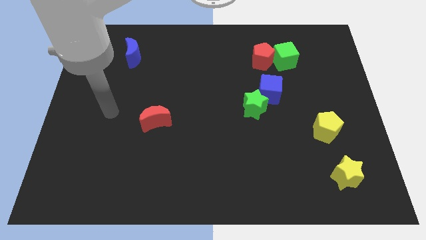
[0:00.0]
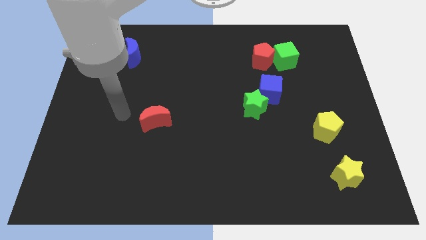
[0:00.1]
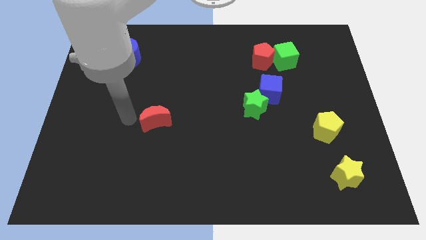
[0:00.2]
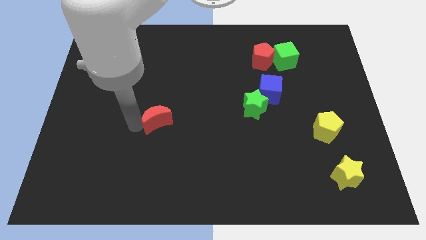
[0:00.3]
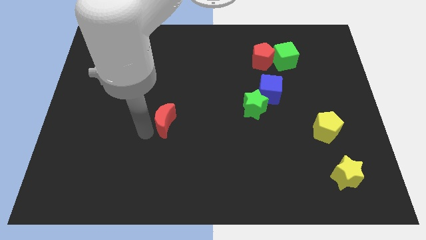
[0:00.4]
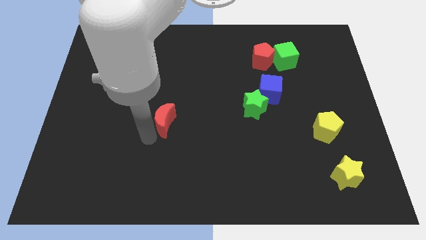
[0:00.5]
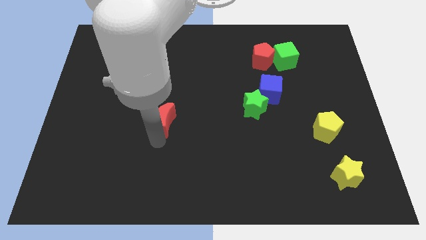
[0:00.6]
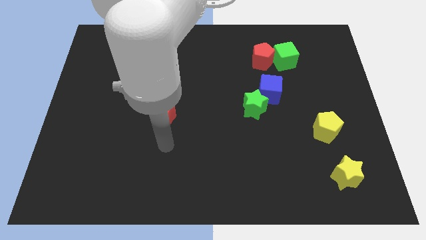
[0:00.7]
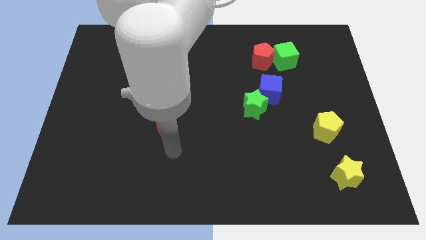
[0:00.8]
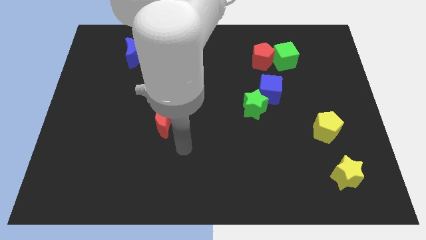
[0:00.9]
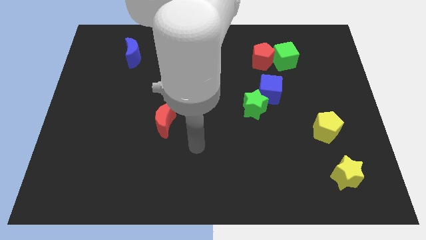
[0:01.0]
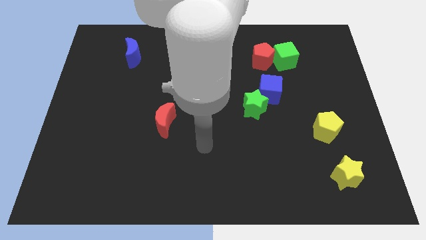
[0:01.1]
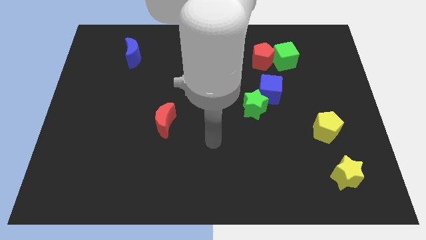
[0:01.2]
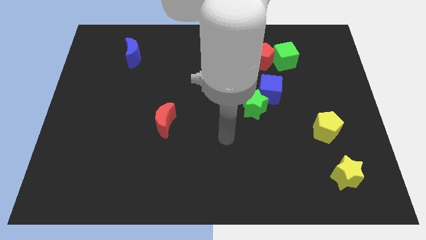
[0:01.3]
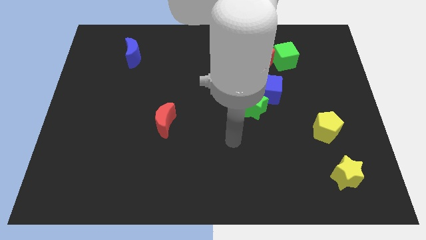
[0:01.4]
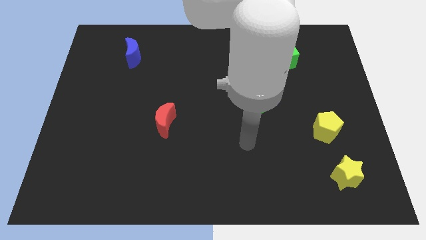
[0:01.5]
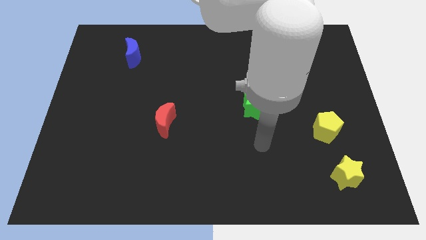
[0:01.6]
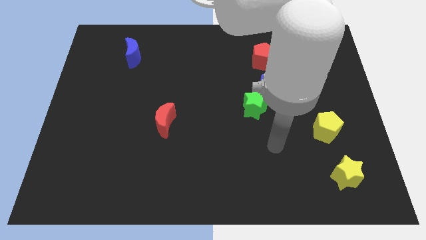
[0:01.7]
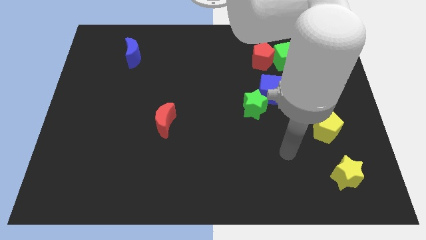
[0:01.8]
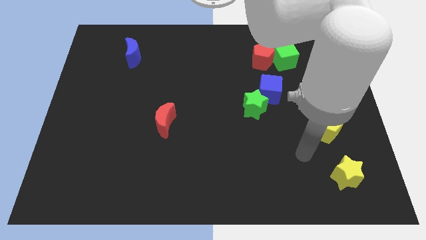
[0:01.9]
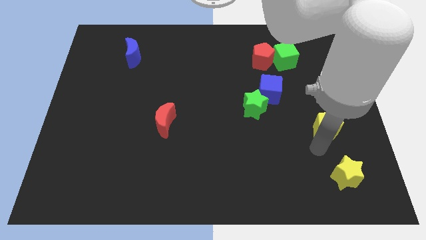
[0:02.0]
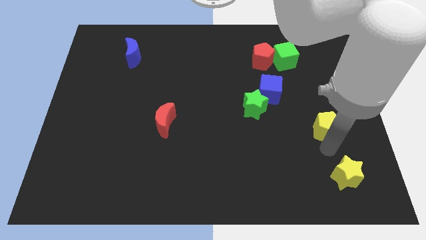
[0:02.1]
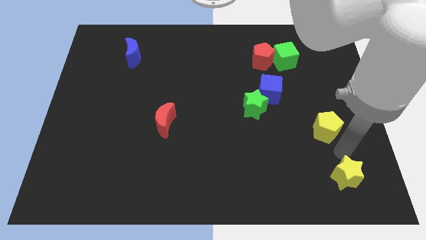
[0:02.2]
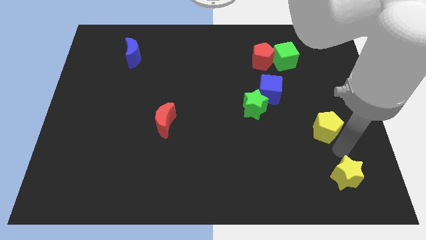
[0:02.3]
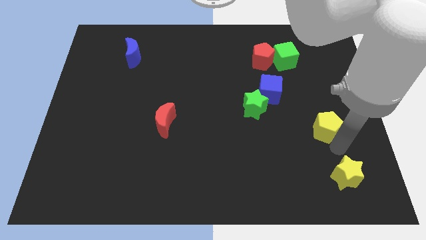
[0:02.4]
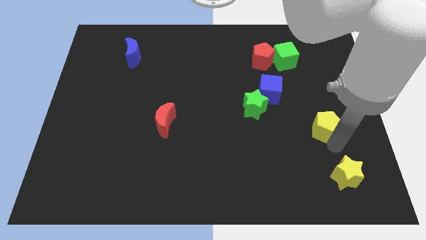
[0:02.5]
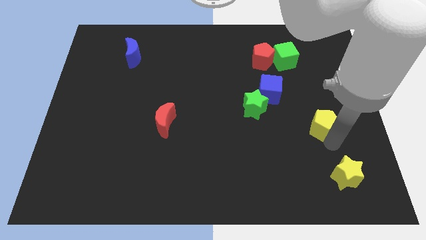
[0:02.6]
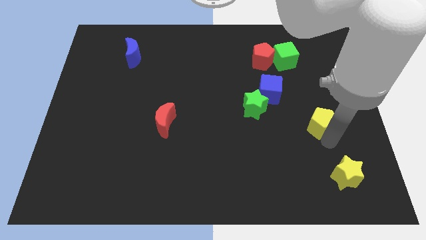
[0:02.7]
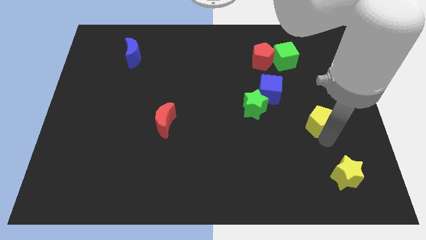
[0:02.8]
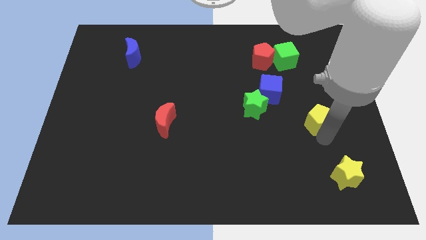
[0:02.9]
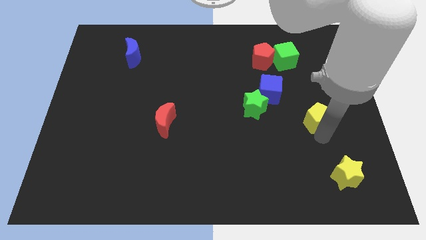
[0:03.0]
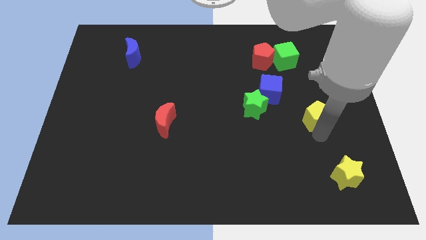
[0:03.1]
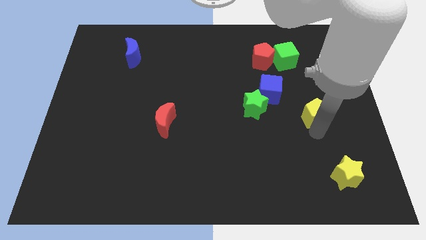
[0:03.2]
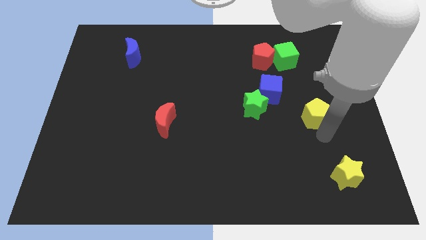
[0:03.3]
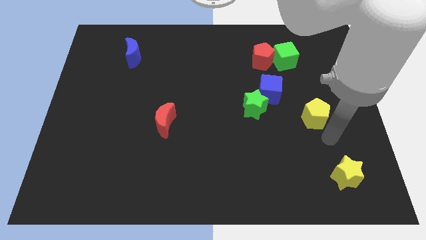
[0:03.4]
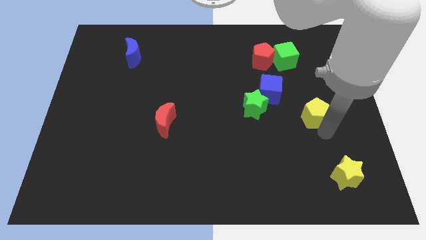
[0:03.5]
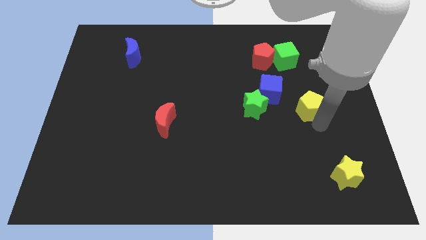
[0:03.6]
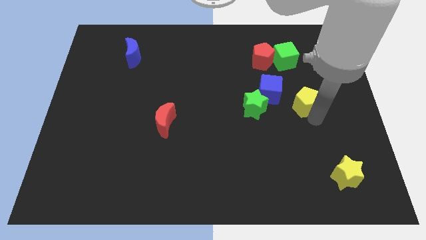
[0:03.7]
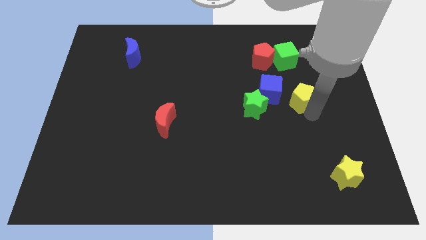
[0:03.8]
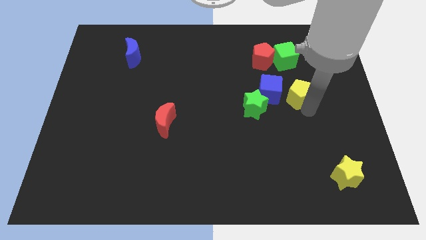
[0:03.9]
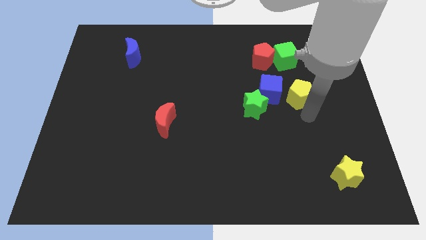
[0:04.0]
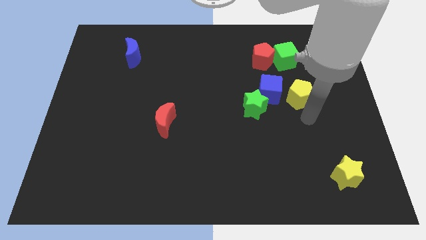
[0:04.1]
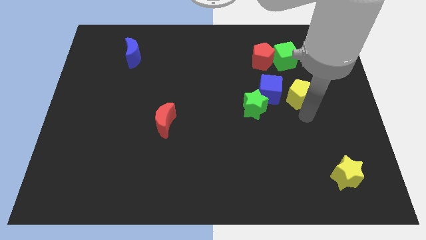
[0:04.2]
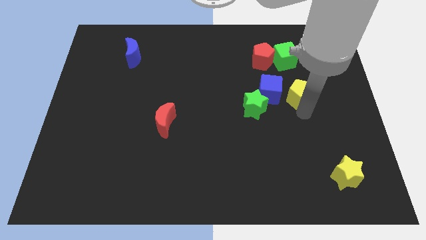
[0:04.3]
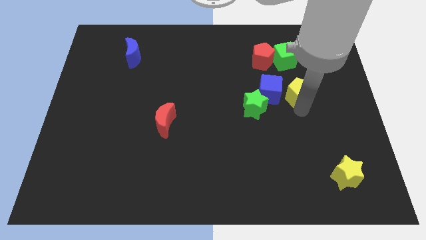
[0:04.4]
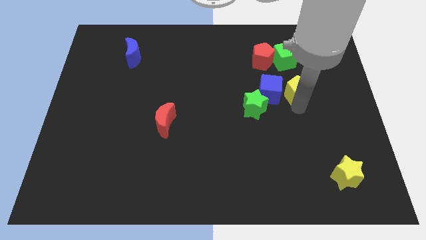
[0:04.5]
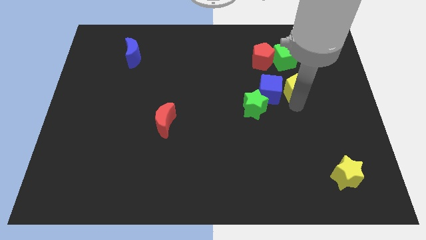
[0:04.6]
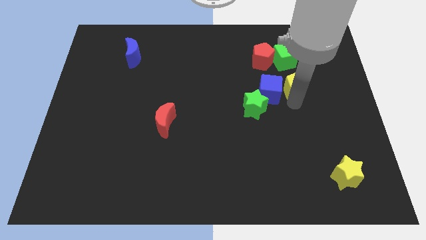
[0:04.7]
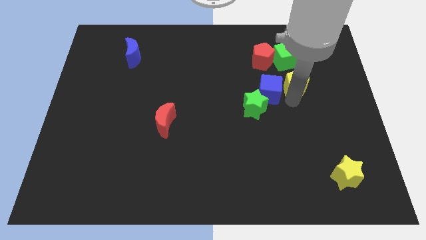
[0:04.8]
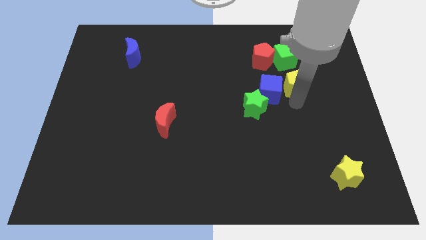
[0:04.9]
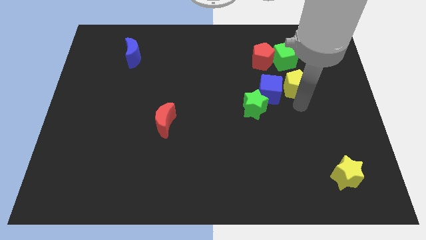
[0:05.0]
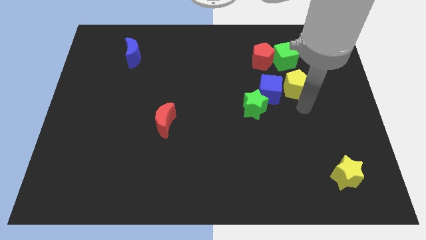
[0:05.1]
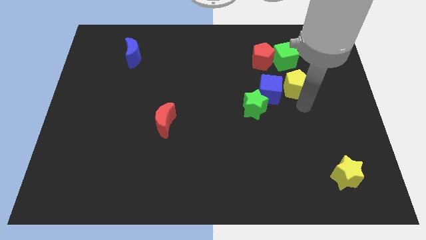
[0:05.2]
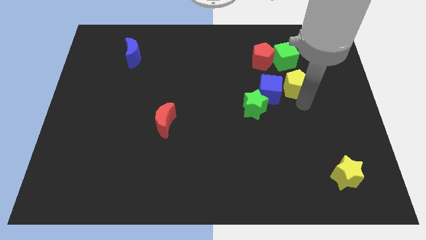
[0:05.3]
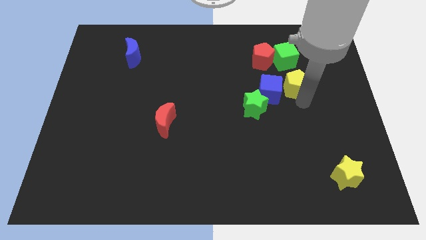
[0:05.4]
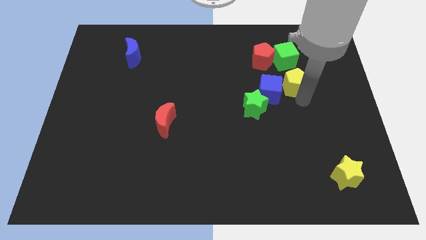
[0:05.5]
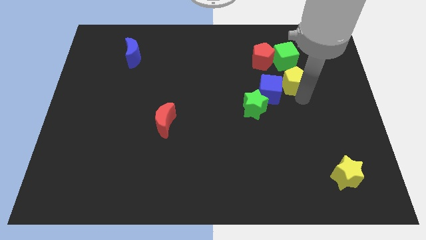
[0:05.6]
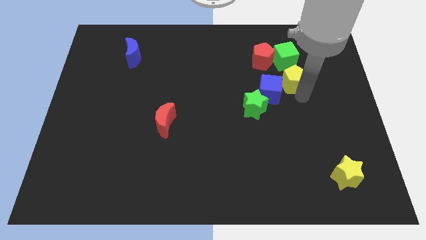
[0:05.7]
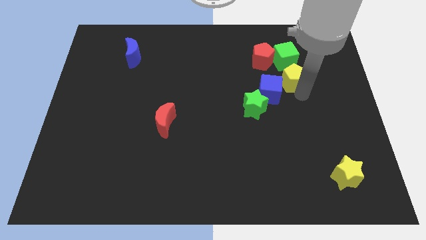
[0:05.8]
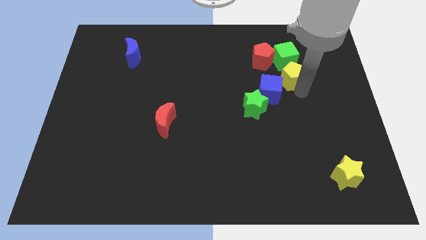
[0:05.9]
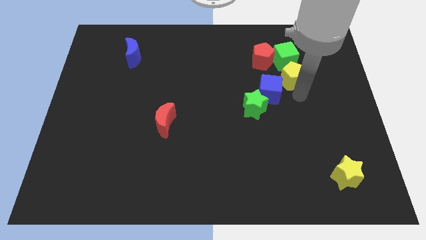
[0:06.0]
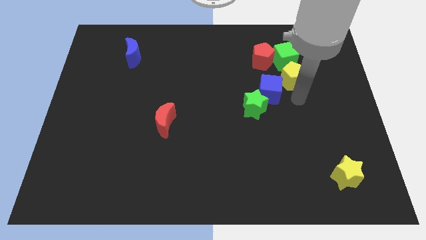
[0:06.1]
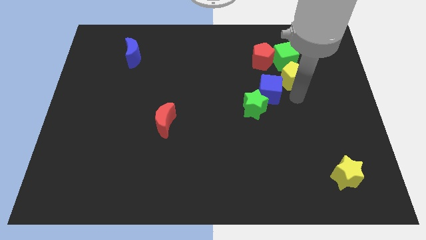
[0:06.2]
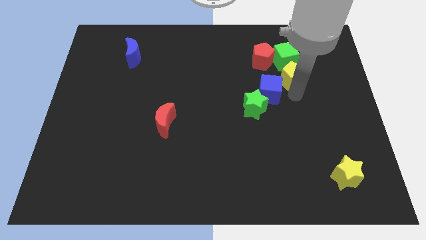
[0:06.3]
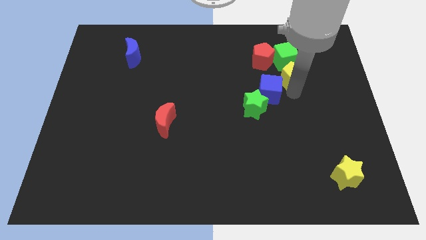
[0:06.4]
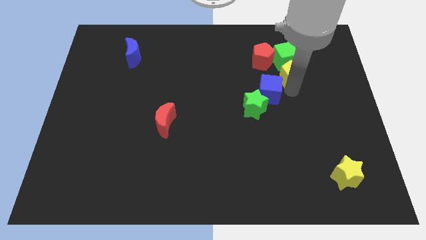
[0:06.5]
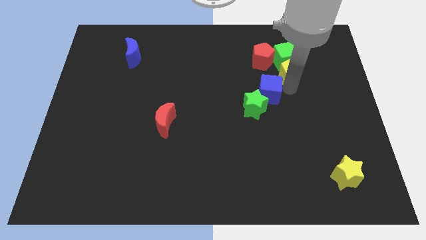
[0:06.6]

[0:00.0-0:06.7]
push the yellow pentagon to the green cube

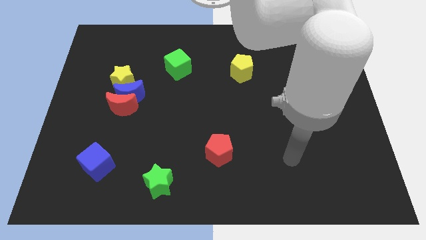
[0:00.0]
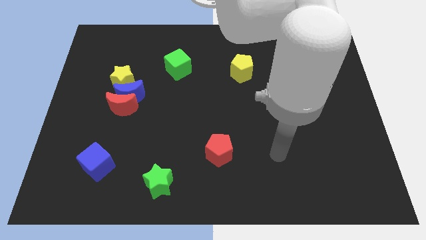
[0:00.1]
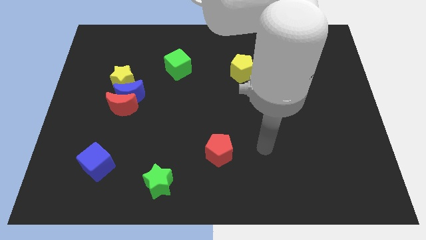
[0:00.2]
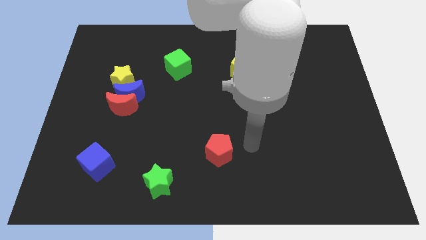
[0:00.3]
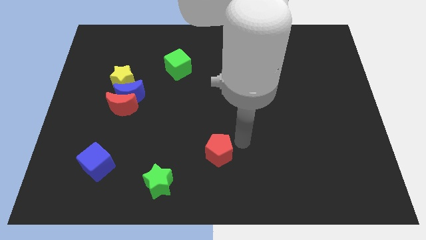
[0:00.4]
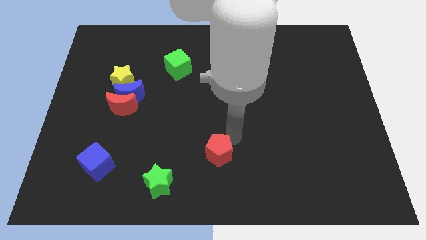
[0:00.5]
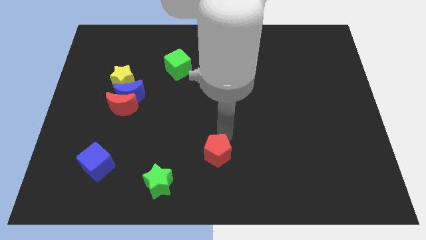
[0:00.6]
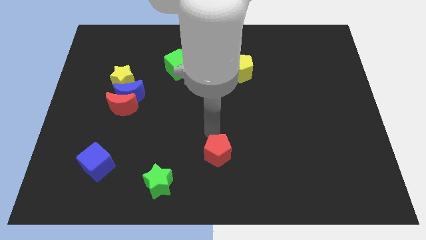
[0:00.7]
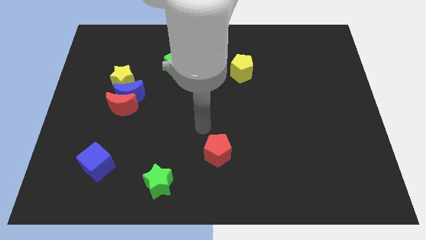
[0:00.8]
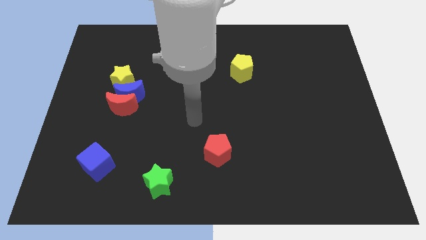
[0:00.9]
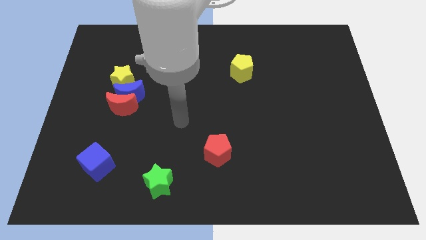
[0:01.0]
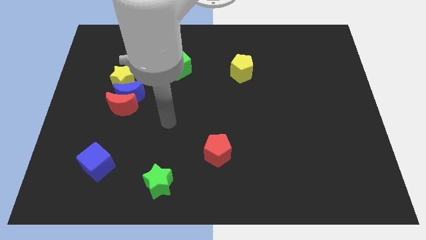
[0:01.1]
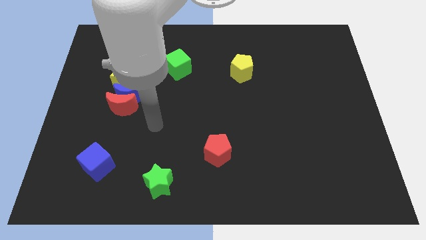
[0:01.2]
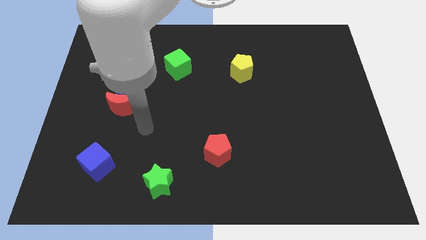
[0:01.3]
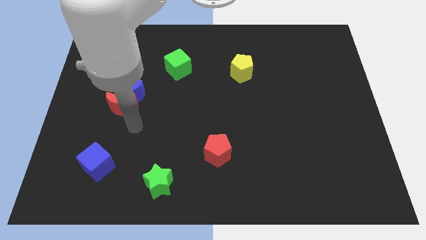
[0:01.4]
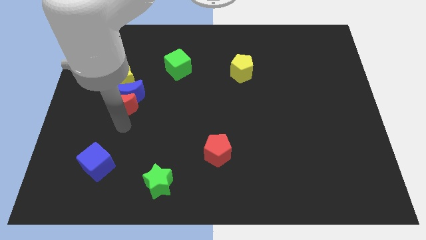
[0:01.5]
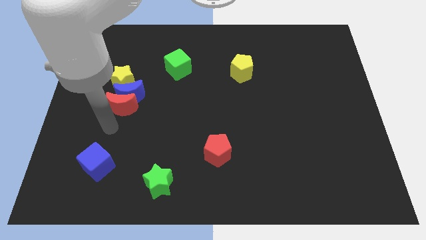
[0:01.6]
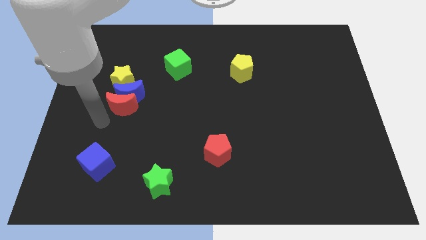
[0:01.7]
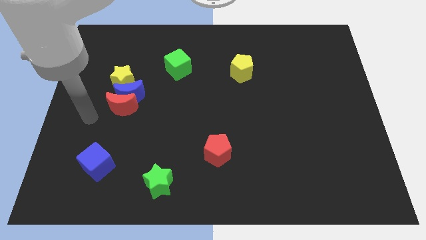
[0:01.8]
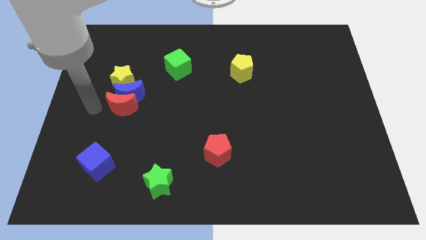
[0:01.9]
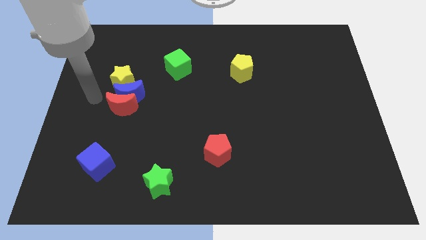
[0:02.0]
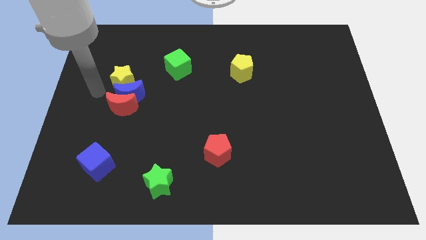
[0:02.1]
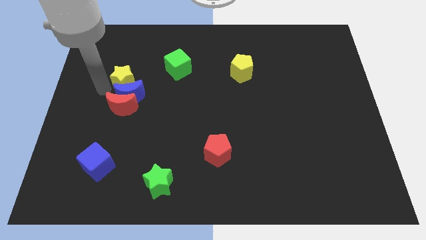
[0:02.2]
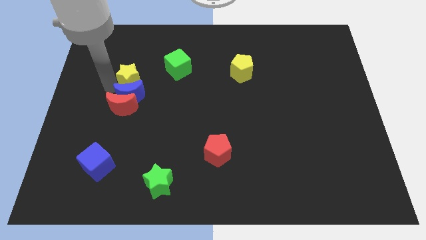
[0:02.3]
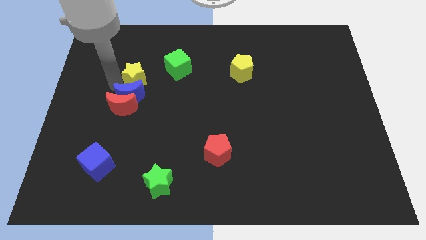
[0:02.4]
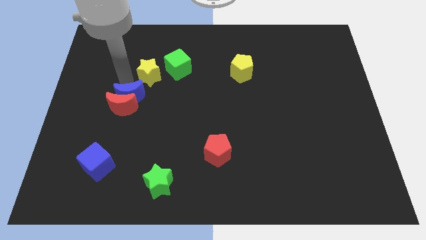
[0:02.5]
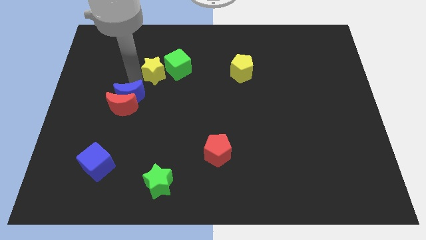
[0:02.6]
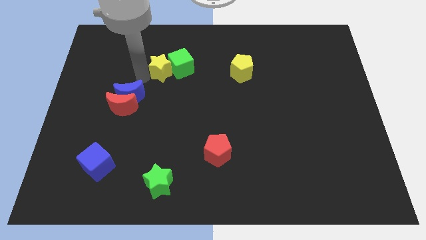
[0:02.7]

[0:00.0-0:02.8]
move the yellow star next to the green cube
